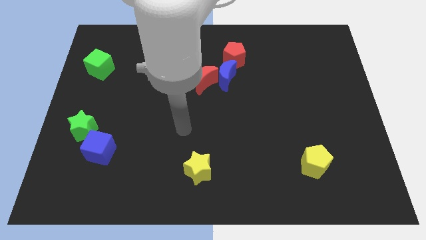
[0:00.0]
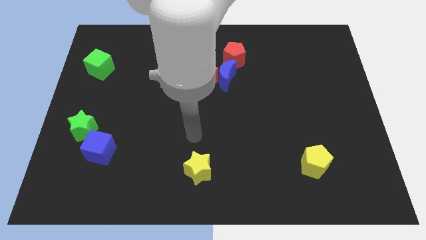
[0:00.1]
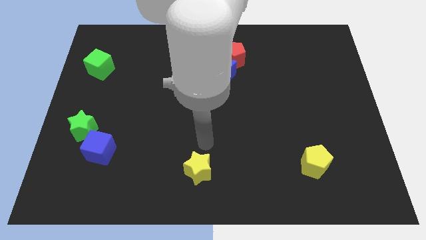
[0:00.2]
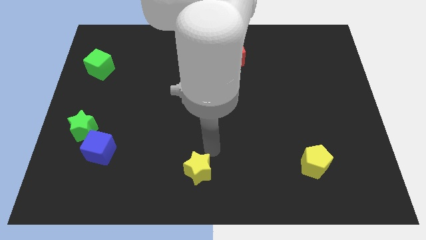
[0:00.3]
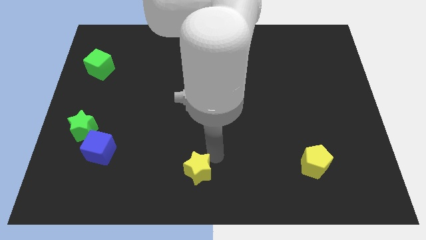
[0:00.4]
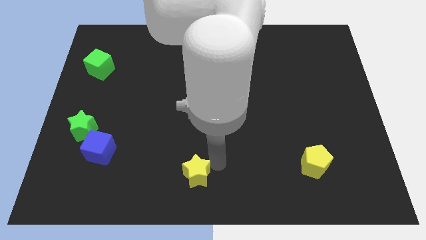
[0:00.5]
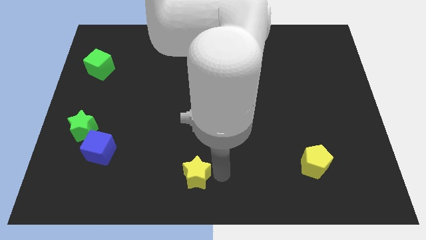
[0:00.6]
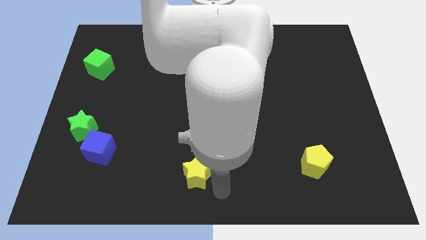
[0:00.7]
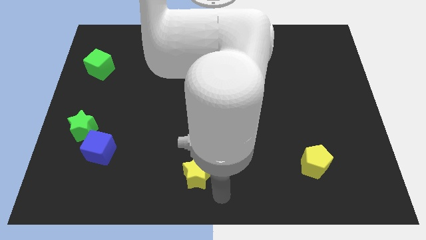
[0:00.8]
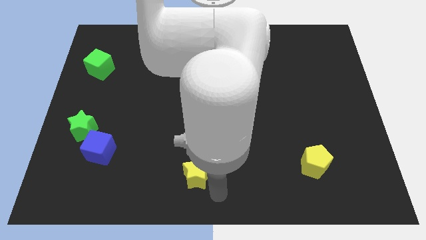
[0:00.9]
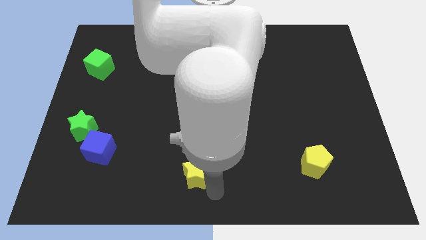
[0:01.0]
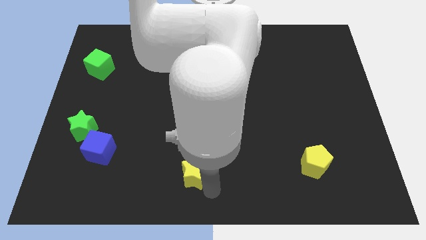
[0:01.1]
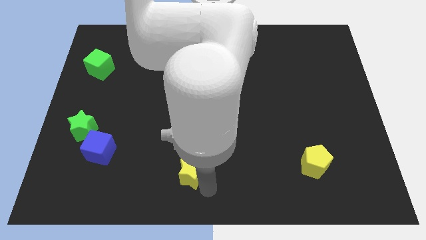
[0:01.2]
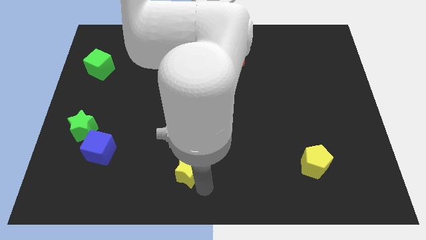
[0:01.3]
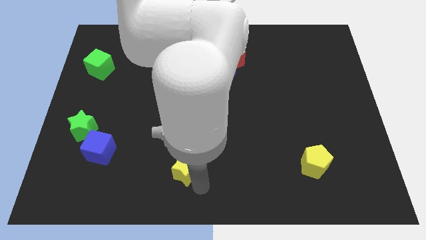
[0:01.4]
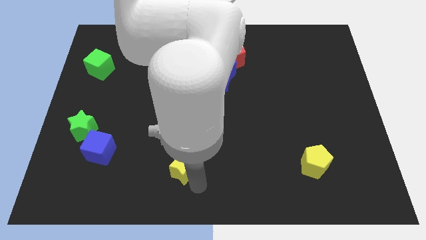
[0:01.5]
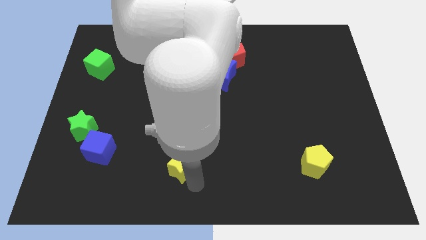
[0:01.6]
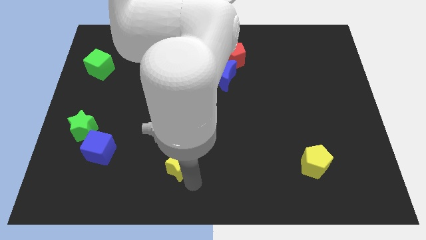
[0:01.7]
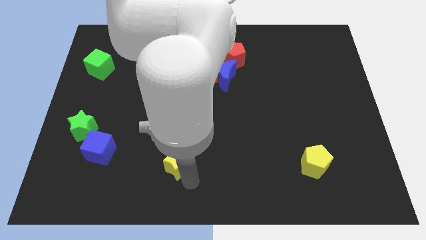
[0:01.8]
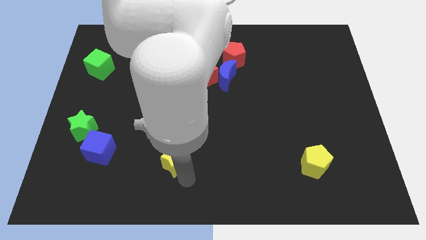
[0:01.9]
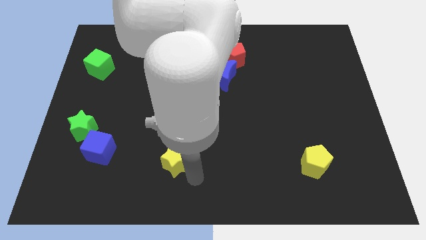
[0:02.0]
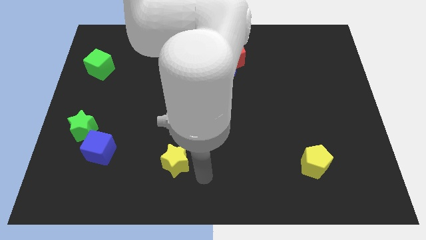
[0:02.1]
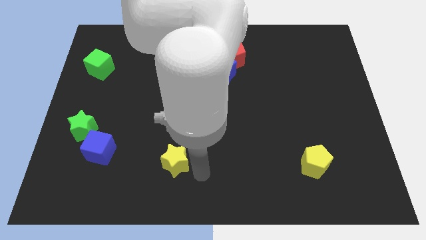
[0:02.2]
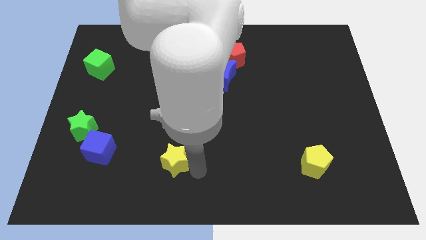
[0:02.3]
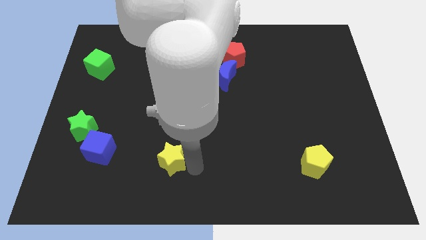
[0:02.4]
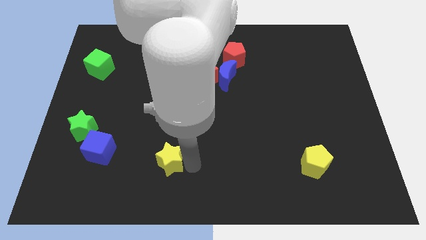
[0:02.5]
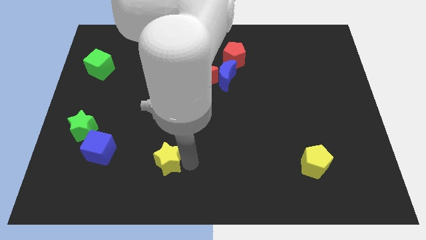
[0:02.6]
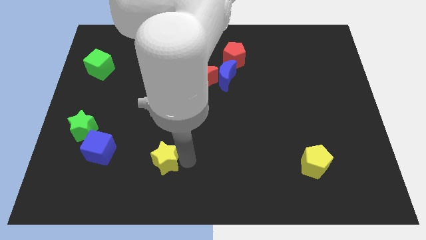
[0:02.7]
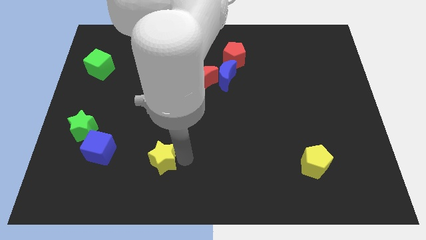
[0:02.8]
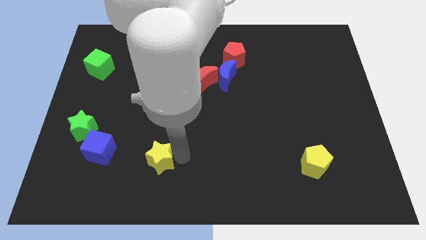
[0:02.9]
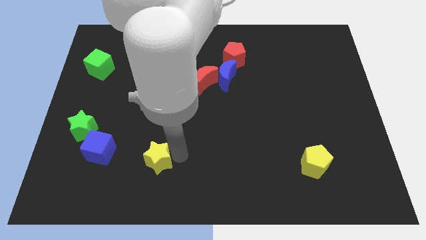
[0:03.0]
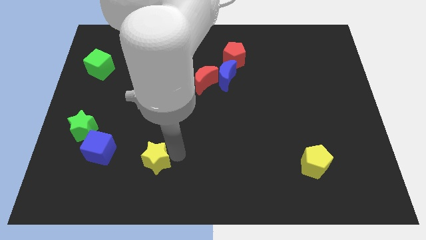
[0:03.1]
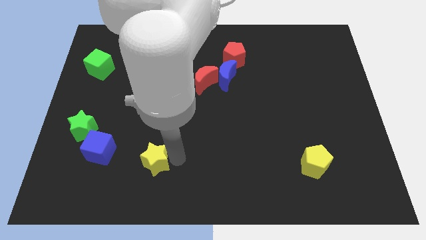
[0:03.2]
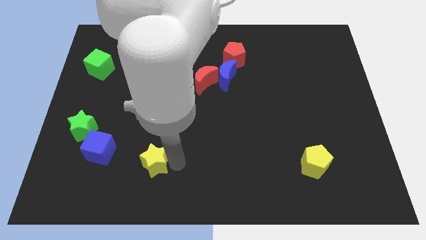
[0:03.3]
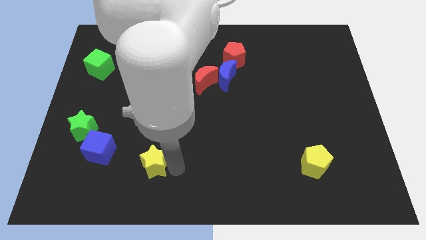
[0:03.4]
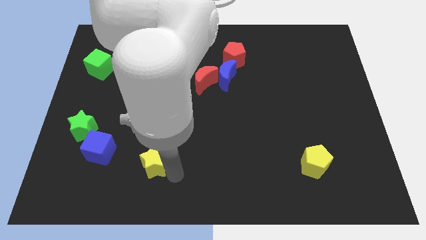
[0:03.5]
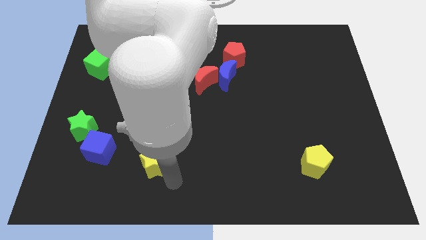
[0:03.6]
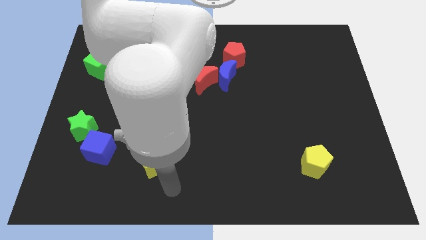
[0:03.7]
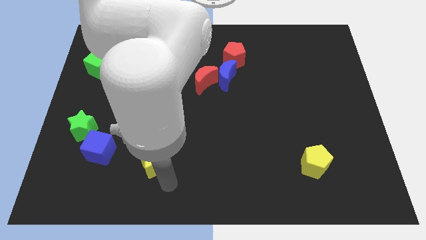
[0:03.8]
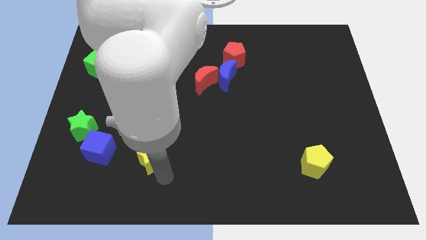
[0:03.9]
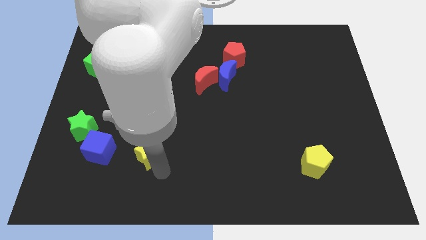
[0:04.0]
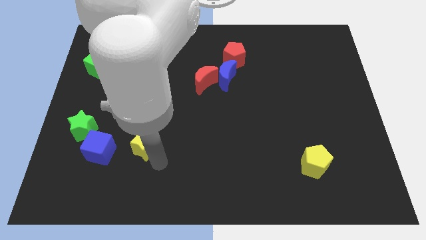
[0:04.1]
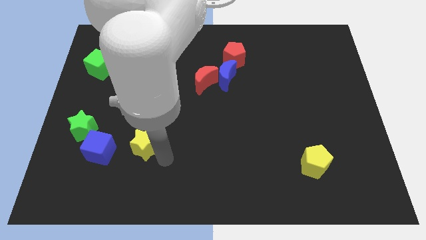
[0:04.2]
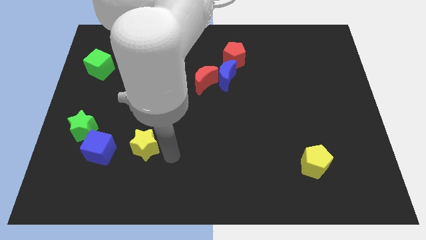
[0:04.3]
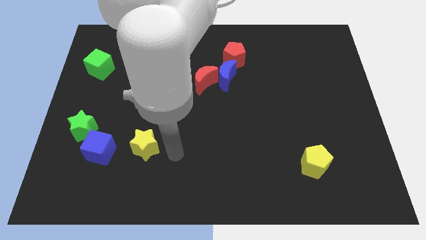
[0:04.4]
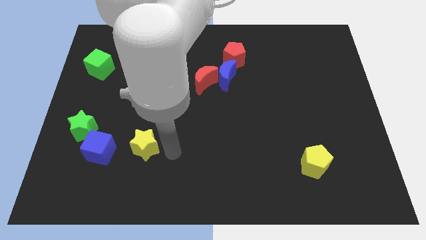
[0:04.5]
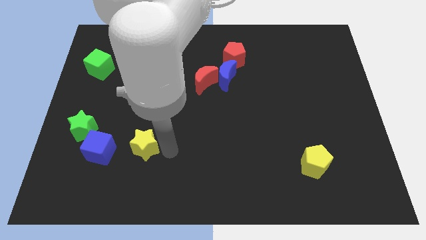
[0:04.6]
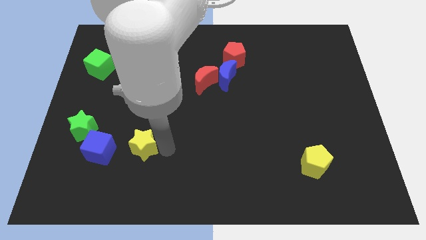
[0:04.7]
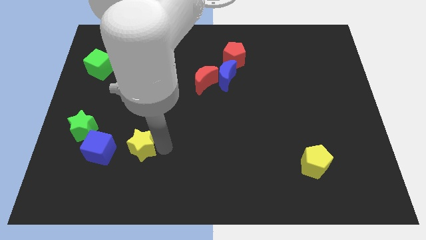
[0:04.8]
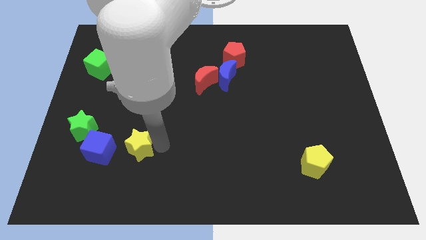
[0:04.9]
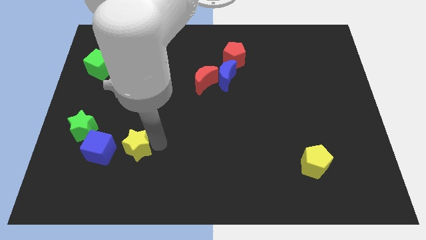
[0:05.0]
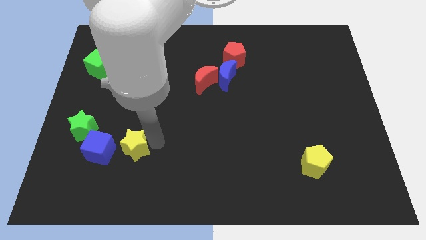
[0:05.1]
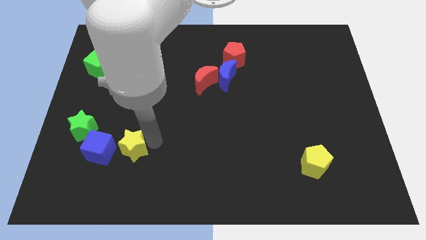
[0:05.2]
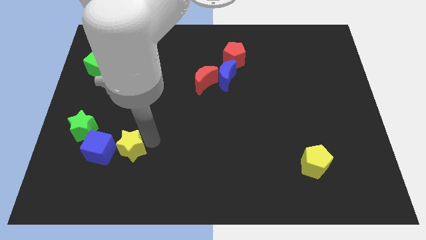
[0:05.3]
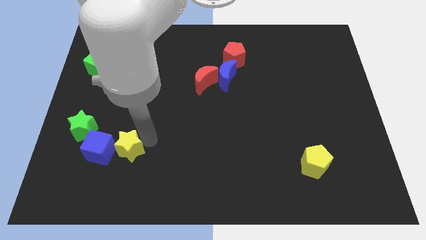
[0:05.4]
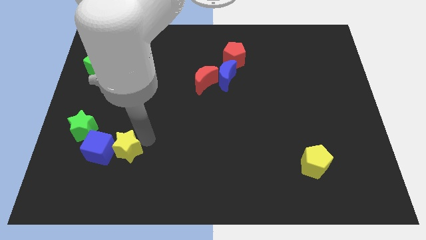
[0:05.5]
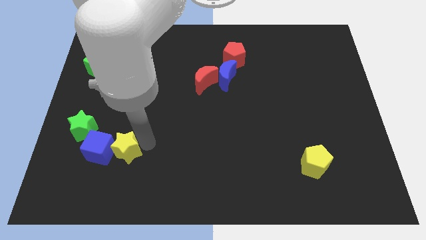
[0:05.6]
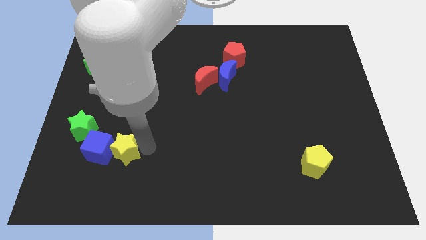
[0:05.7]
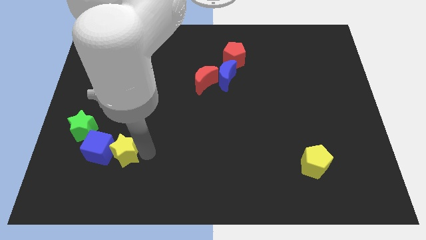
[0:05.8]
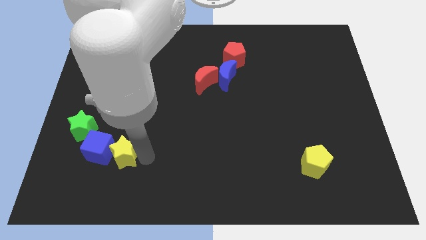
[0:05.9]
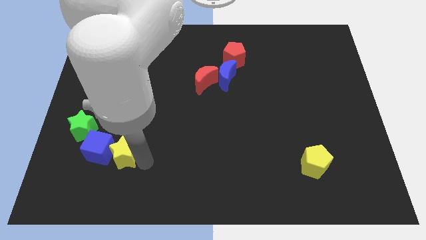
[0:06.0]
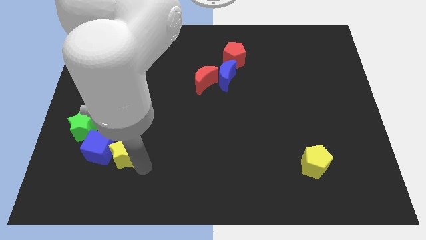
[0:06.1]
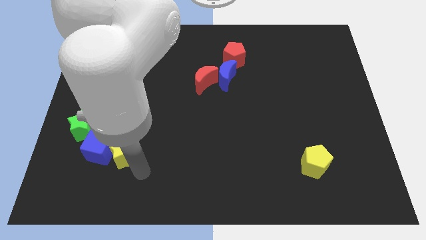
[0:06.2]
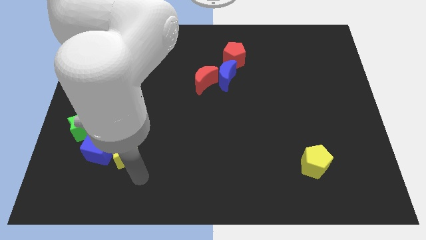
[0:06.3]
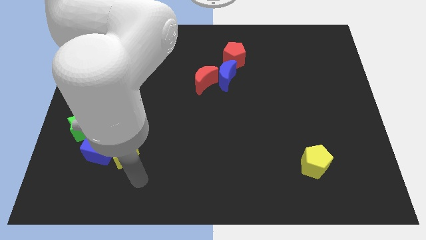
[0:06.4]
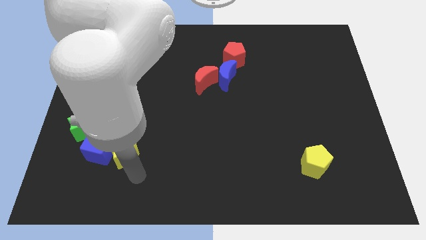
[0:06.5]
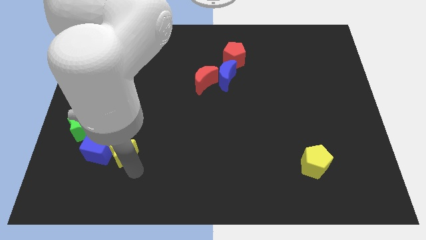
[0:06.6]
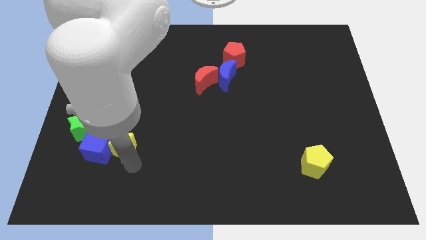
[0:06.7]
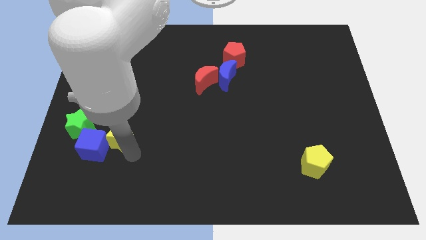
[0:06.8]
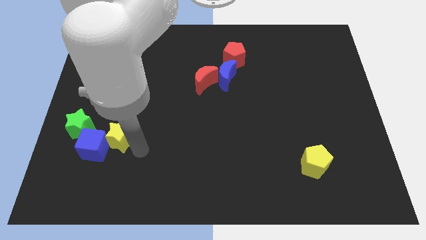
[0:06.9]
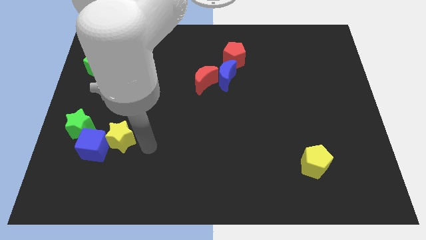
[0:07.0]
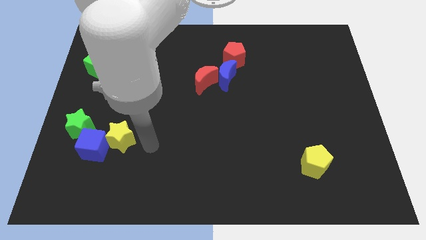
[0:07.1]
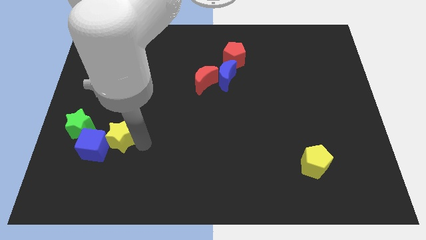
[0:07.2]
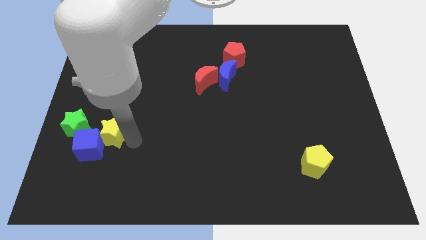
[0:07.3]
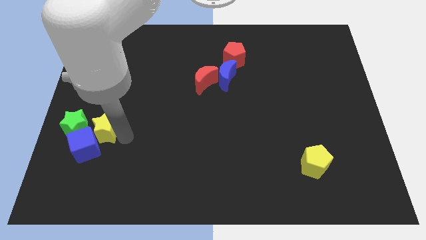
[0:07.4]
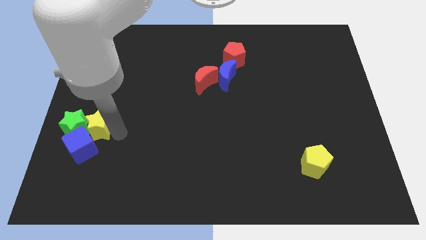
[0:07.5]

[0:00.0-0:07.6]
slide the yellow star next to the green star
